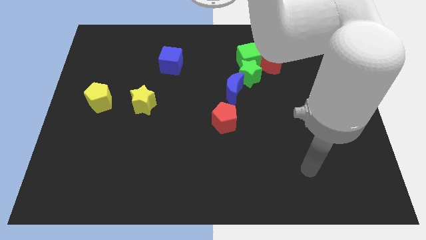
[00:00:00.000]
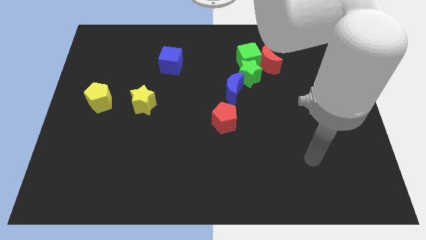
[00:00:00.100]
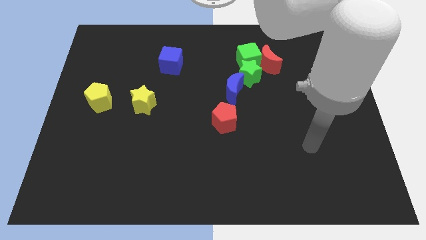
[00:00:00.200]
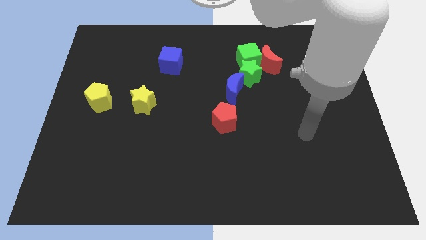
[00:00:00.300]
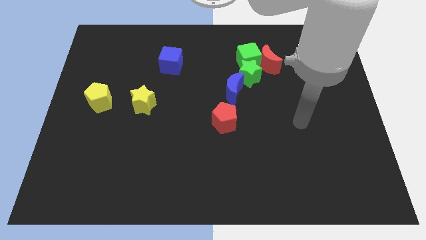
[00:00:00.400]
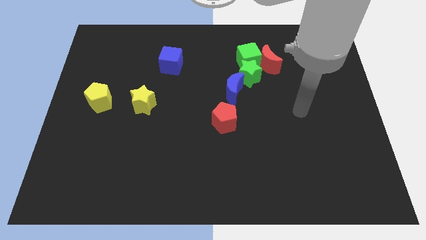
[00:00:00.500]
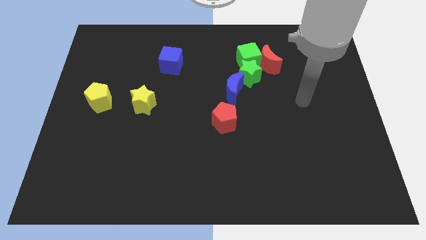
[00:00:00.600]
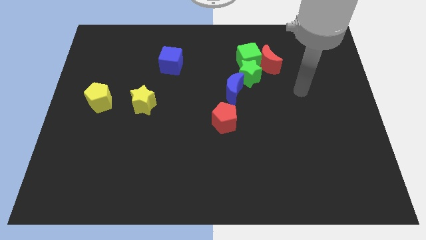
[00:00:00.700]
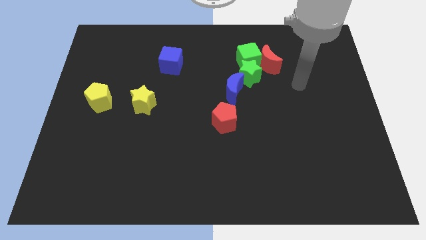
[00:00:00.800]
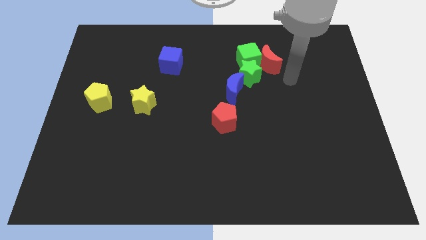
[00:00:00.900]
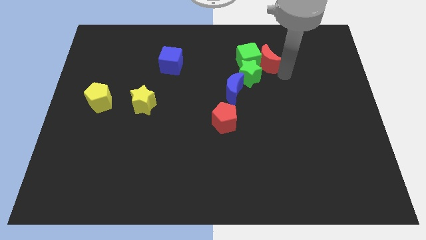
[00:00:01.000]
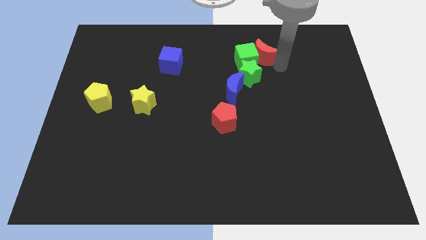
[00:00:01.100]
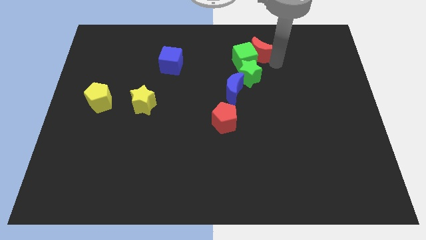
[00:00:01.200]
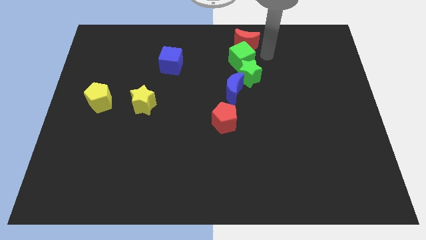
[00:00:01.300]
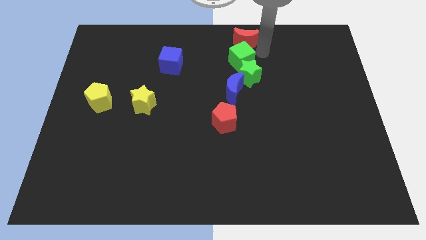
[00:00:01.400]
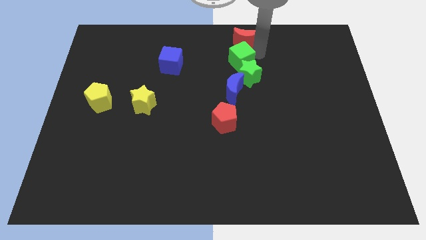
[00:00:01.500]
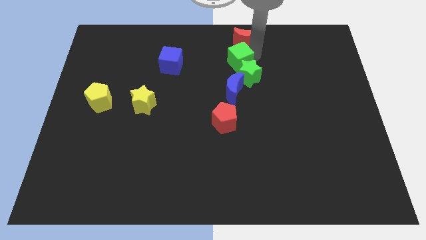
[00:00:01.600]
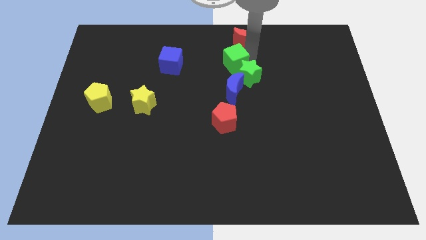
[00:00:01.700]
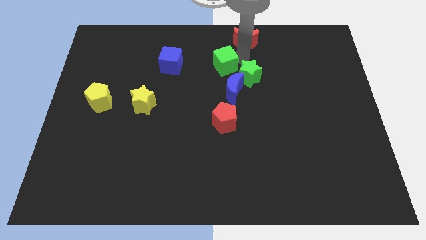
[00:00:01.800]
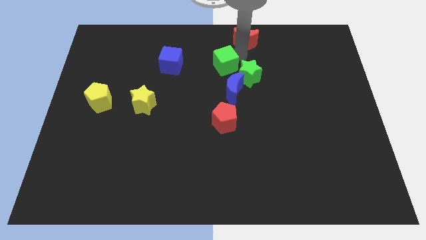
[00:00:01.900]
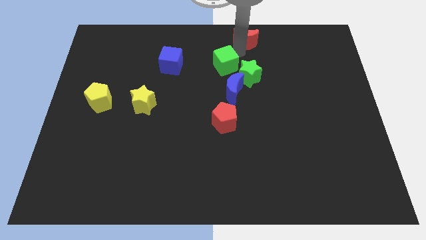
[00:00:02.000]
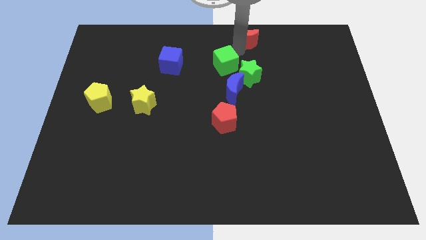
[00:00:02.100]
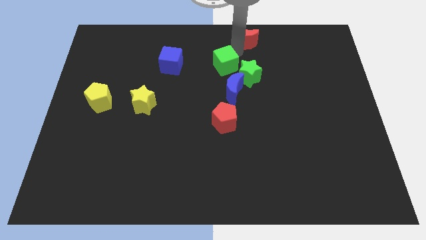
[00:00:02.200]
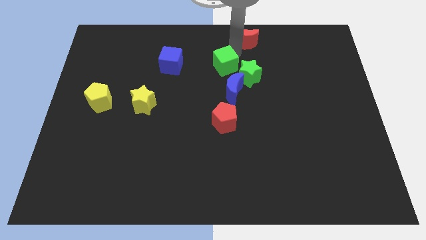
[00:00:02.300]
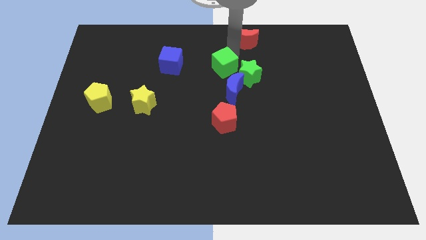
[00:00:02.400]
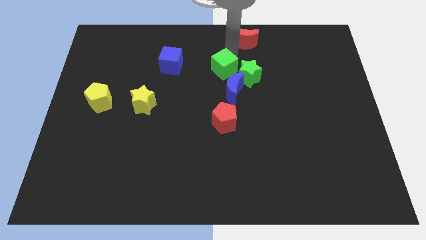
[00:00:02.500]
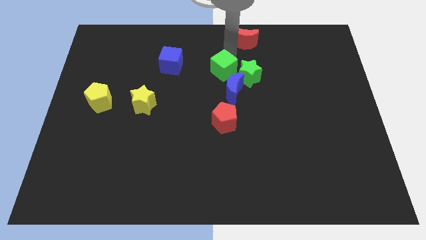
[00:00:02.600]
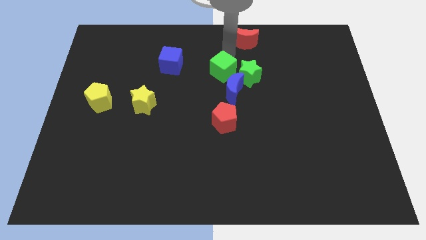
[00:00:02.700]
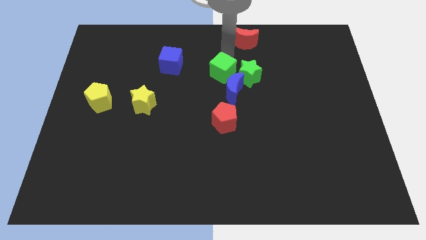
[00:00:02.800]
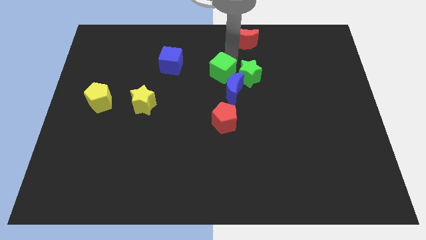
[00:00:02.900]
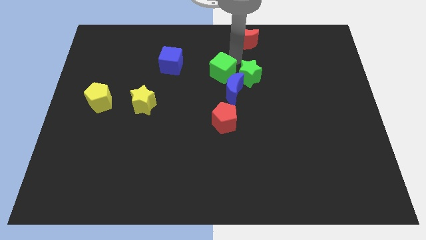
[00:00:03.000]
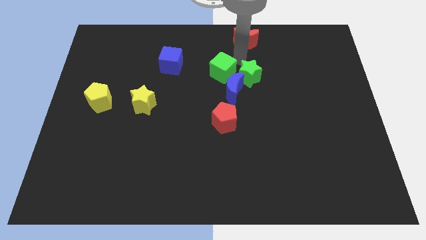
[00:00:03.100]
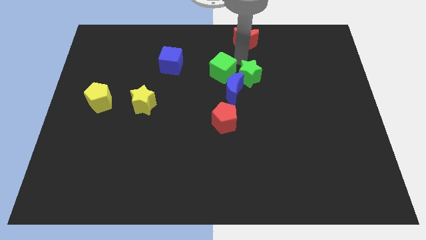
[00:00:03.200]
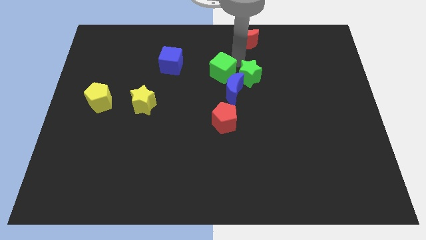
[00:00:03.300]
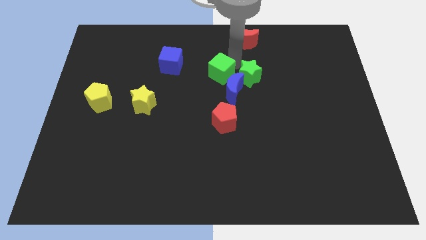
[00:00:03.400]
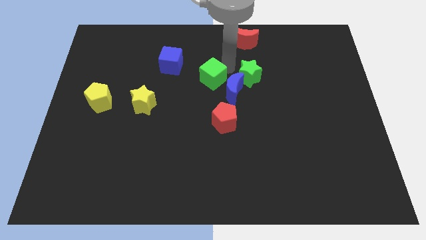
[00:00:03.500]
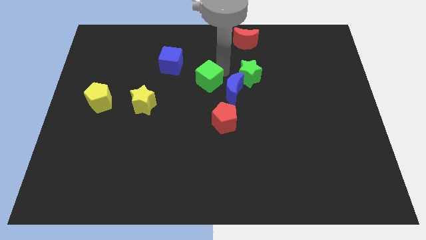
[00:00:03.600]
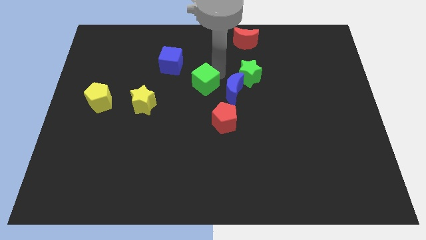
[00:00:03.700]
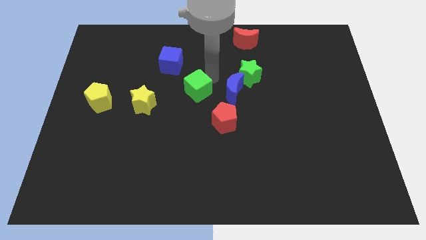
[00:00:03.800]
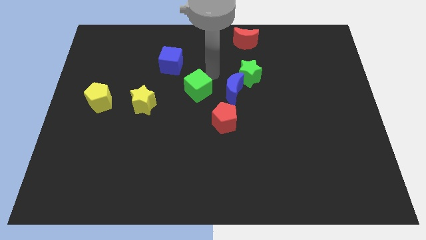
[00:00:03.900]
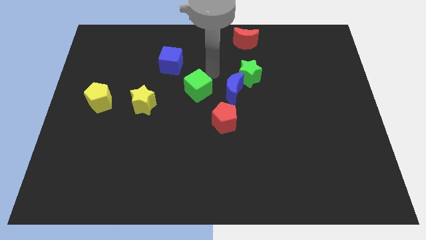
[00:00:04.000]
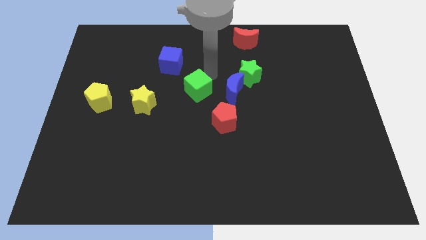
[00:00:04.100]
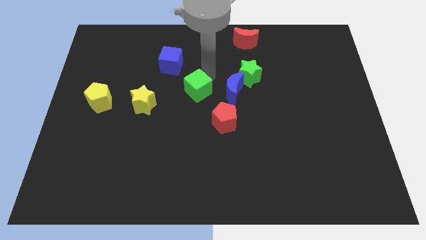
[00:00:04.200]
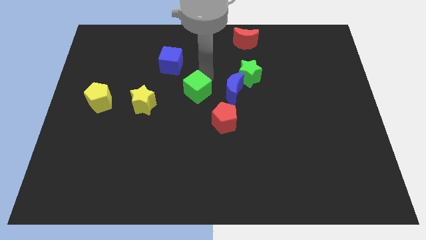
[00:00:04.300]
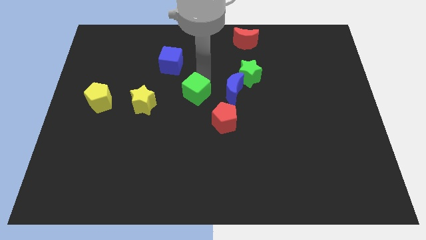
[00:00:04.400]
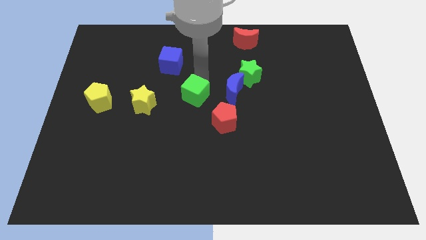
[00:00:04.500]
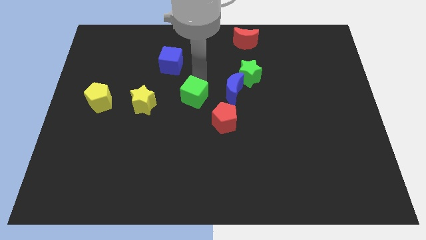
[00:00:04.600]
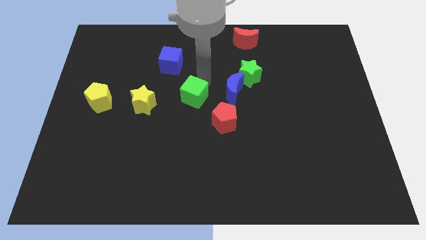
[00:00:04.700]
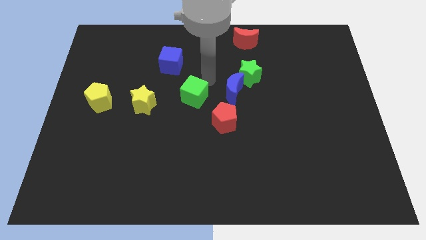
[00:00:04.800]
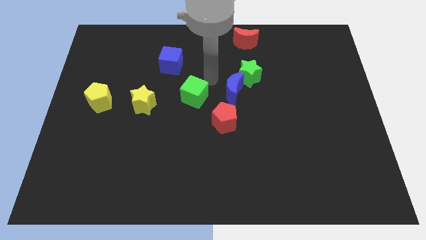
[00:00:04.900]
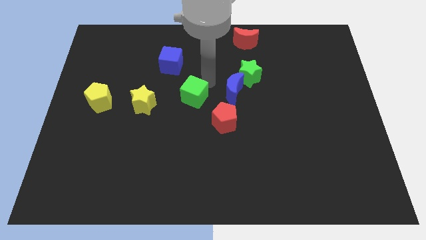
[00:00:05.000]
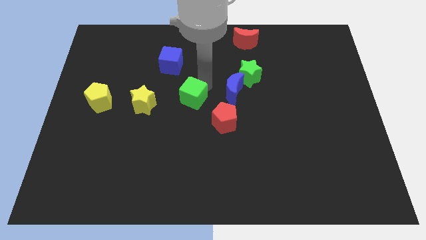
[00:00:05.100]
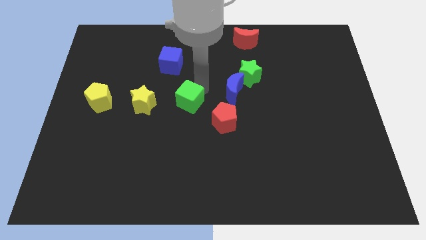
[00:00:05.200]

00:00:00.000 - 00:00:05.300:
slide the green cube downwards and left diagonally

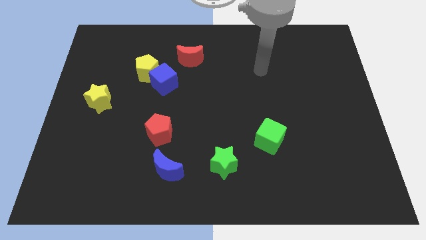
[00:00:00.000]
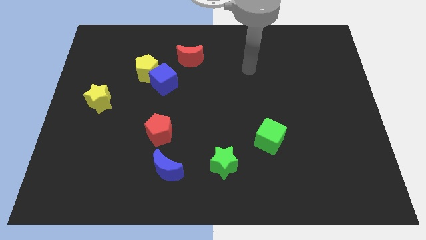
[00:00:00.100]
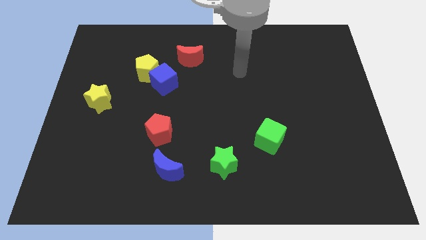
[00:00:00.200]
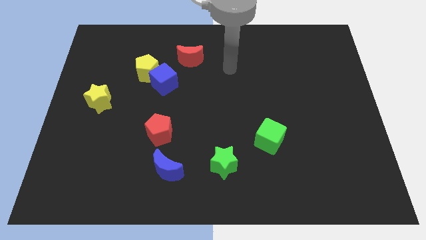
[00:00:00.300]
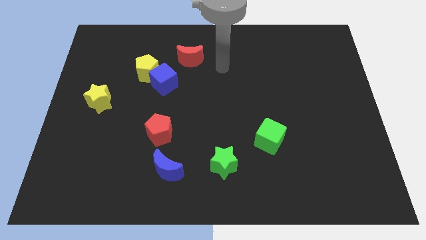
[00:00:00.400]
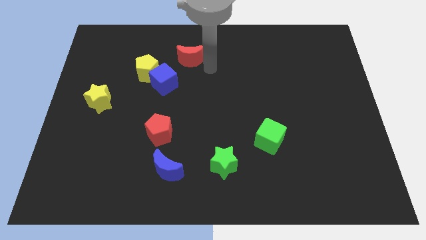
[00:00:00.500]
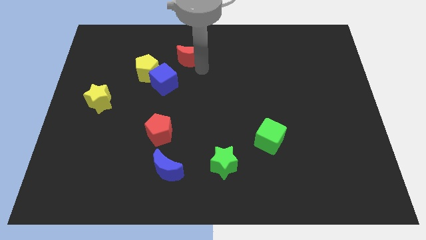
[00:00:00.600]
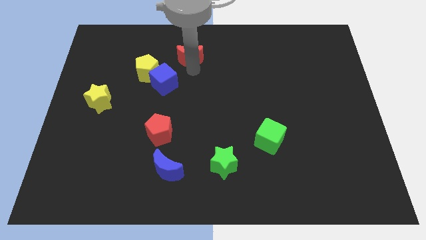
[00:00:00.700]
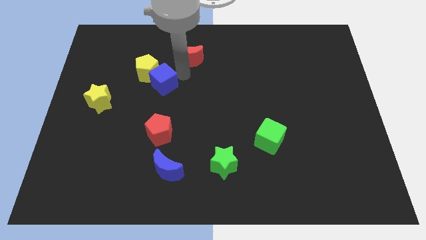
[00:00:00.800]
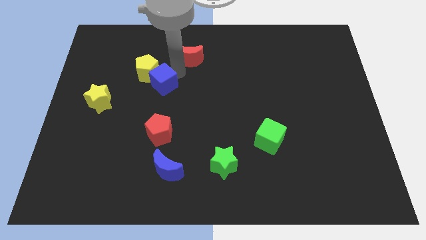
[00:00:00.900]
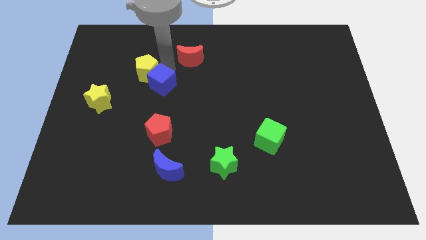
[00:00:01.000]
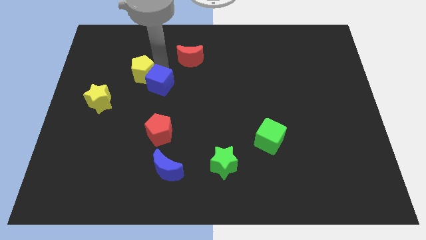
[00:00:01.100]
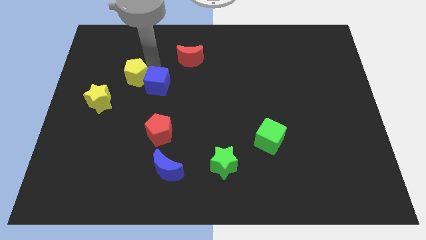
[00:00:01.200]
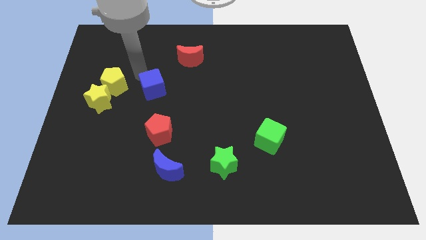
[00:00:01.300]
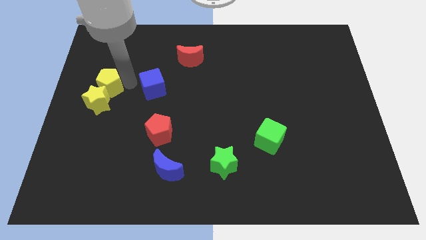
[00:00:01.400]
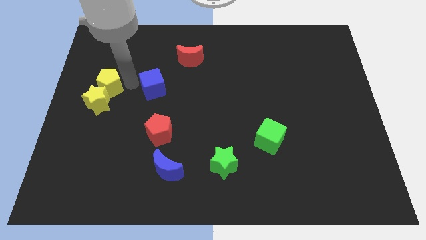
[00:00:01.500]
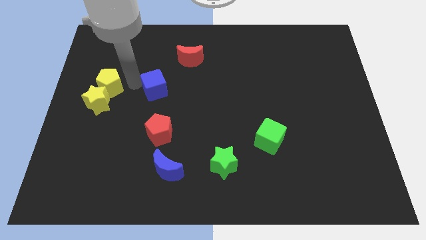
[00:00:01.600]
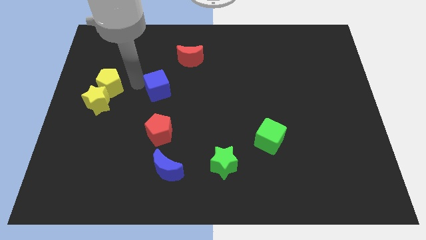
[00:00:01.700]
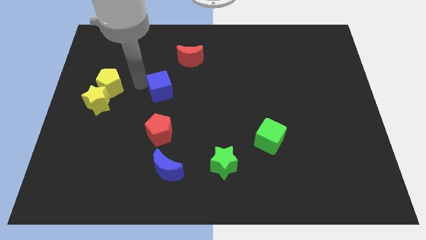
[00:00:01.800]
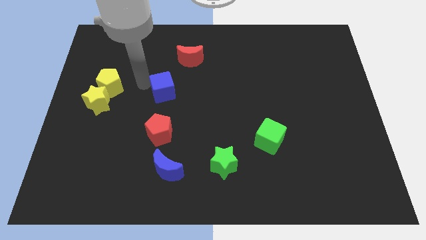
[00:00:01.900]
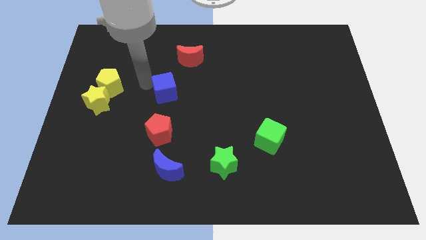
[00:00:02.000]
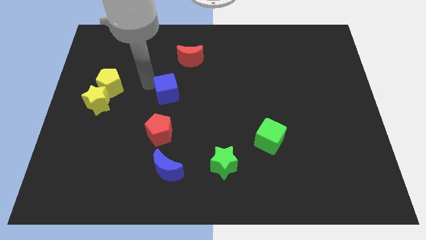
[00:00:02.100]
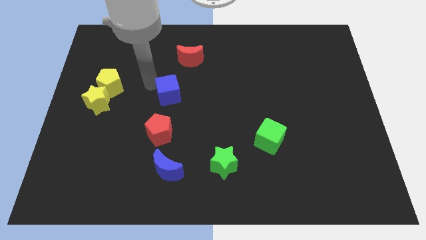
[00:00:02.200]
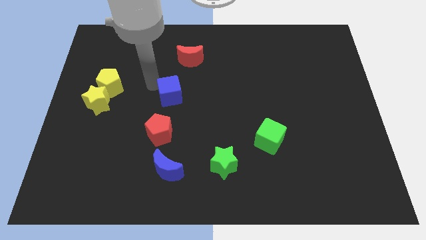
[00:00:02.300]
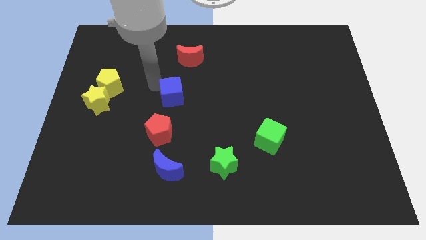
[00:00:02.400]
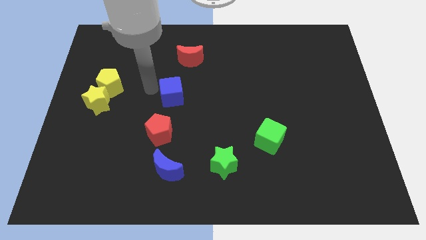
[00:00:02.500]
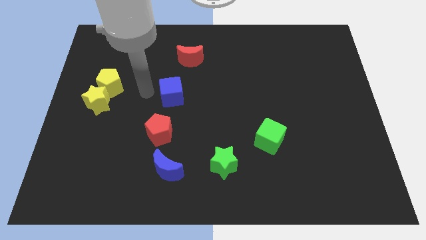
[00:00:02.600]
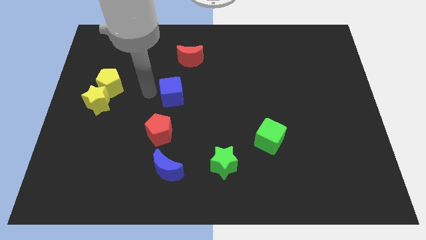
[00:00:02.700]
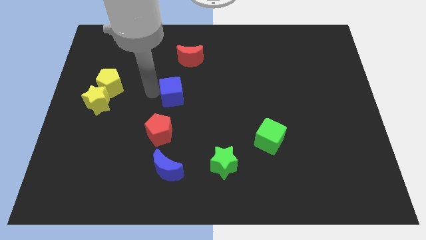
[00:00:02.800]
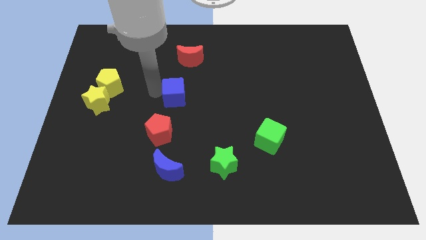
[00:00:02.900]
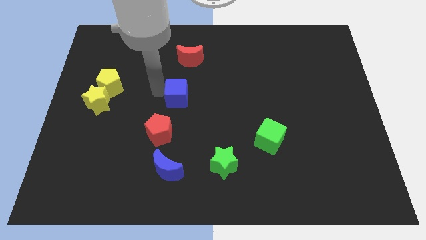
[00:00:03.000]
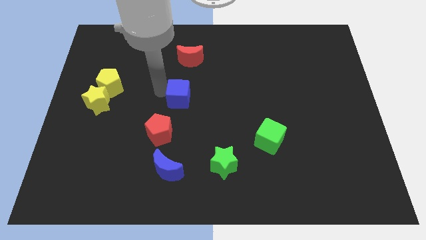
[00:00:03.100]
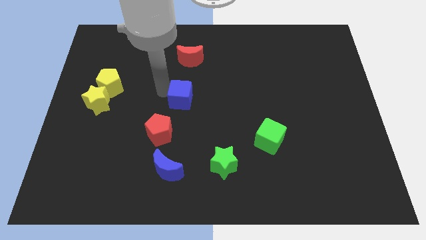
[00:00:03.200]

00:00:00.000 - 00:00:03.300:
slightly push the blue cube downwards and right diagonally
